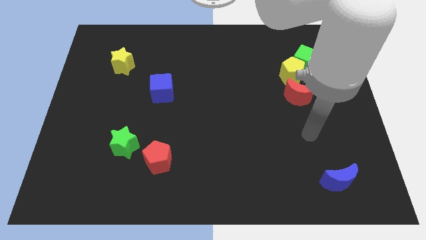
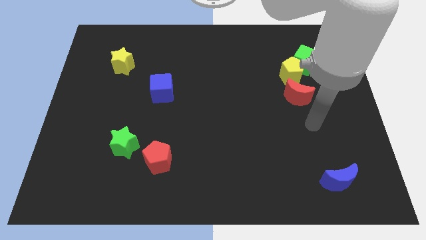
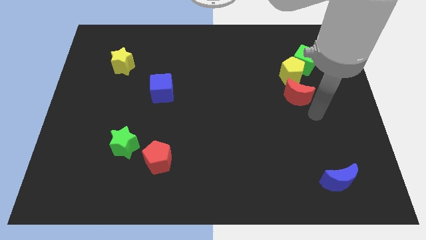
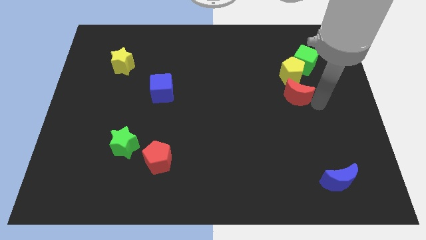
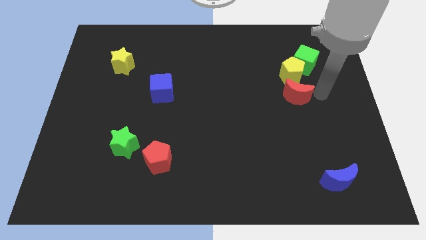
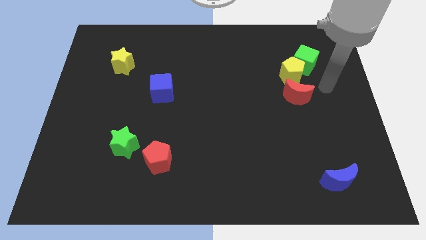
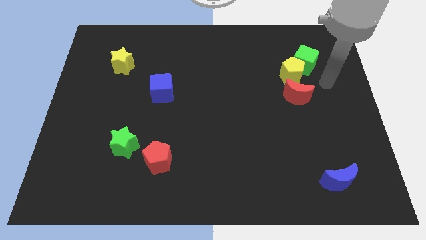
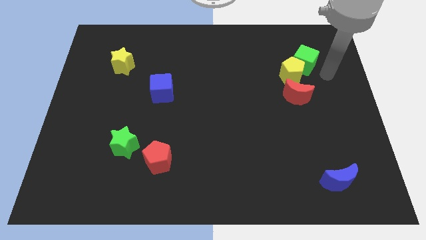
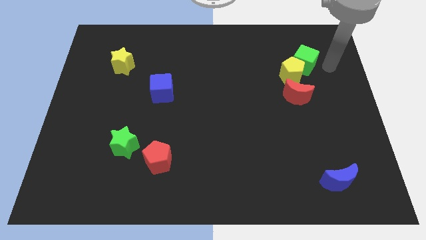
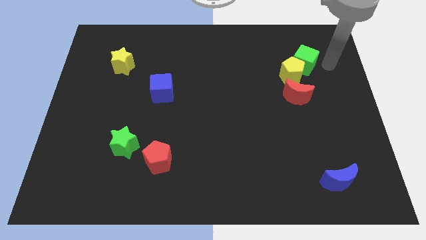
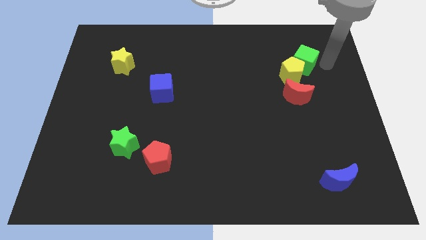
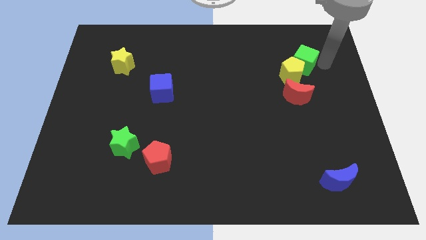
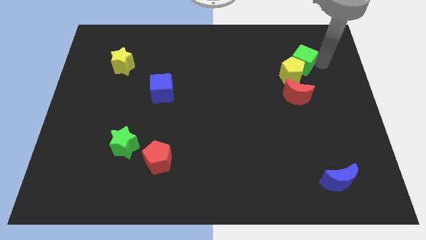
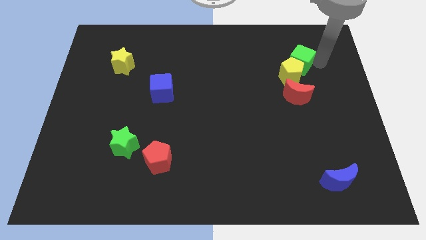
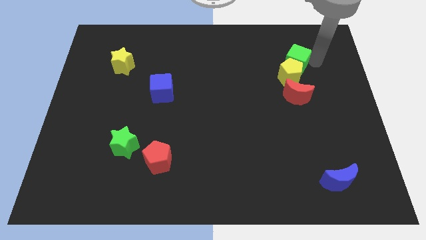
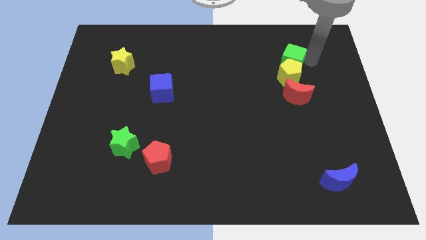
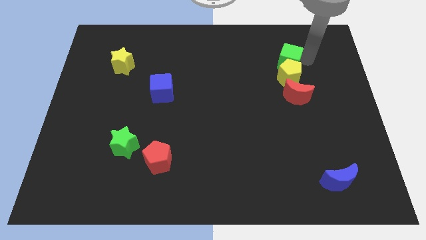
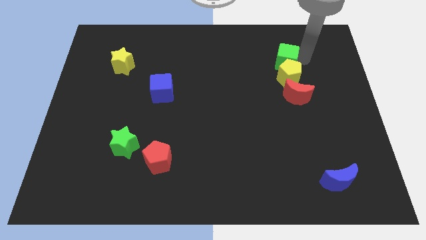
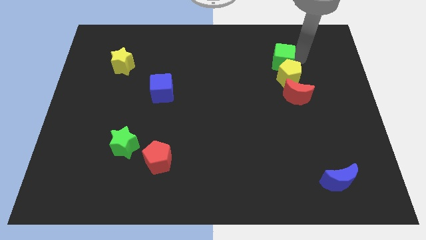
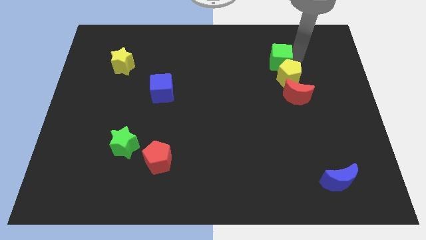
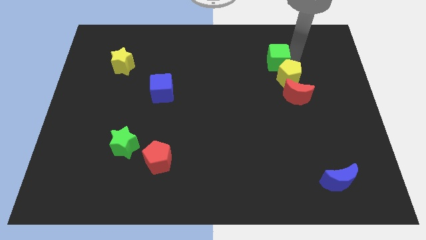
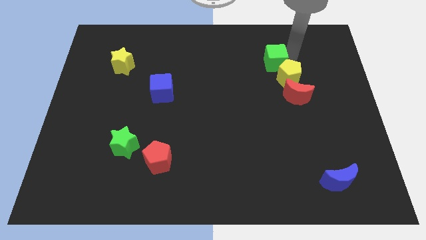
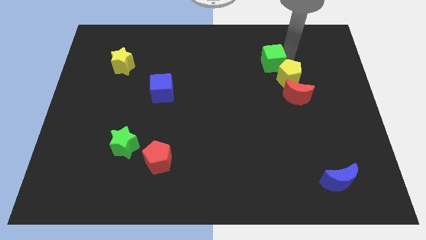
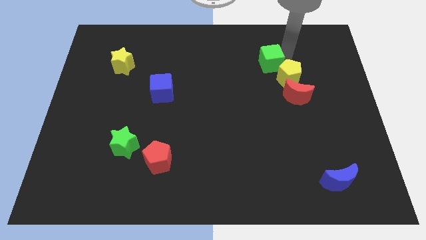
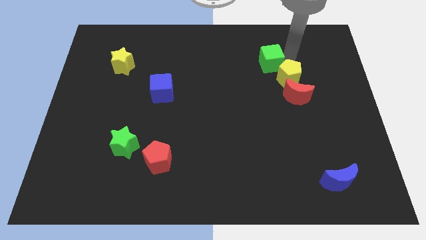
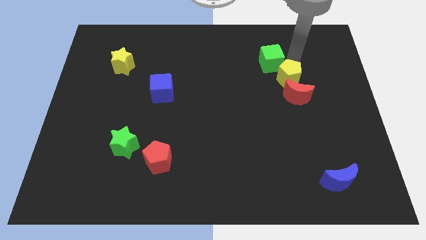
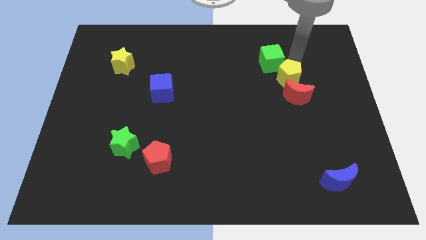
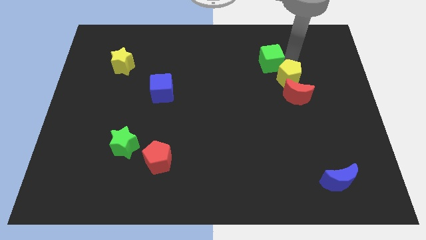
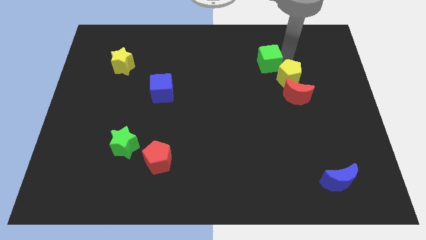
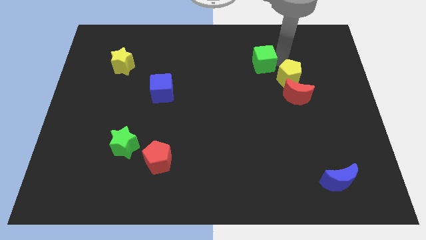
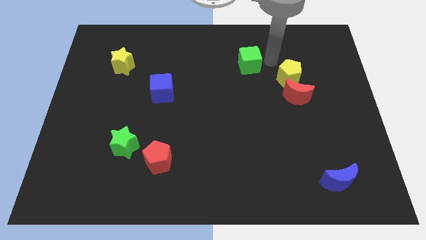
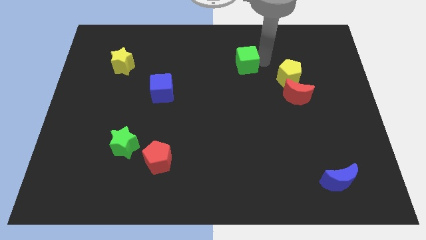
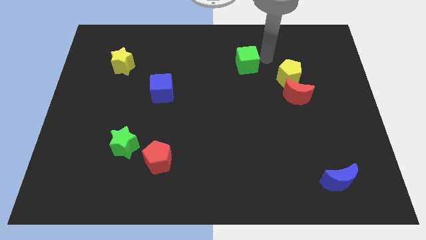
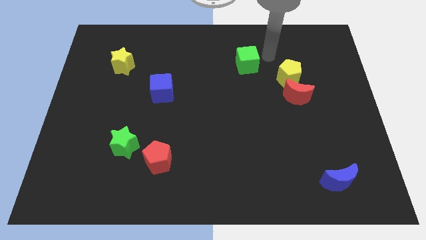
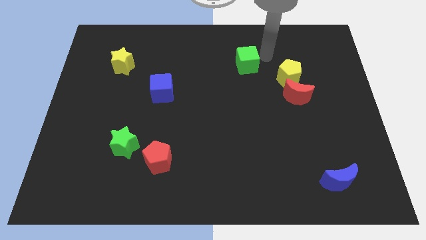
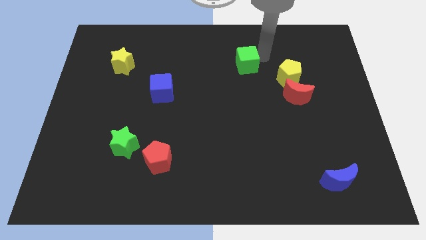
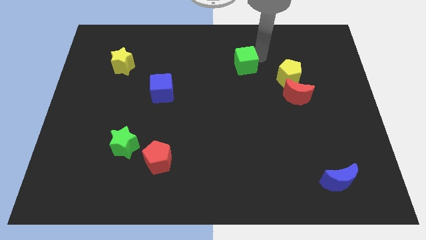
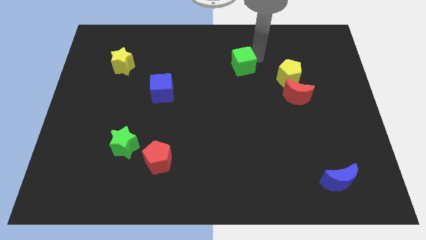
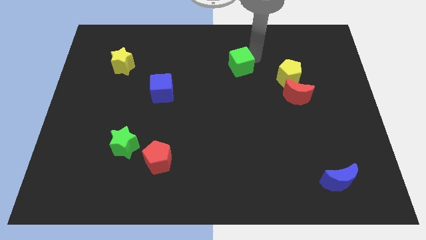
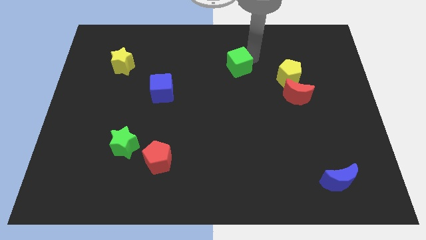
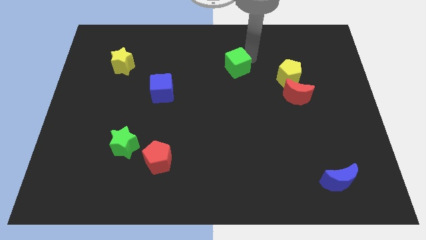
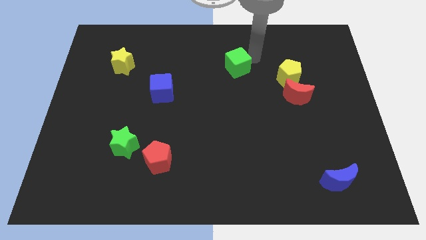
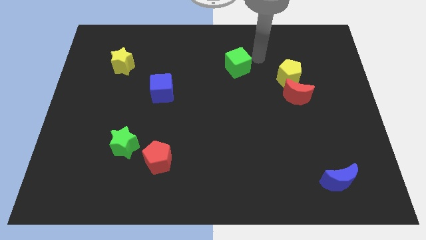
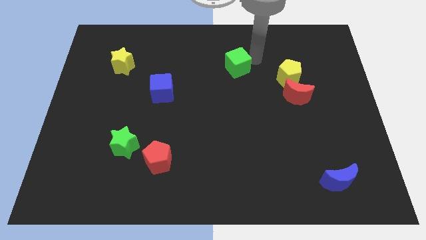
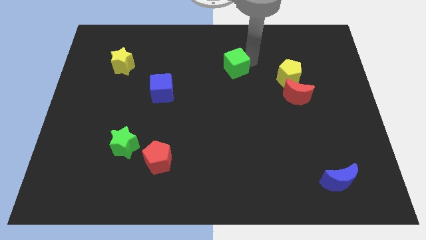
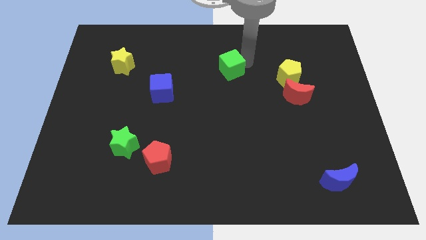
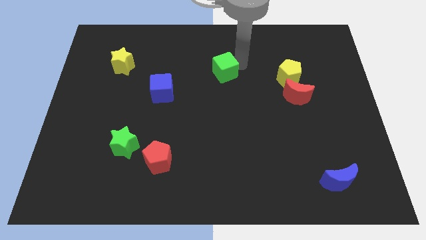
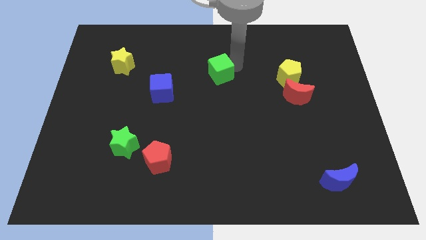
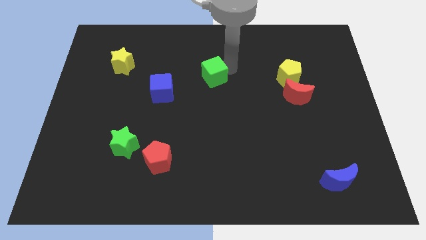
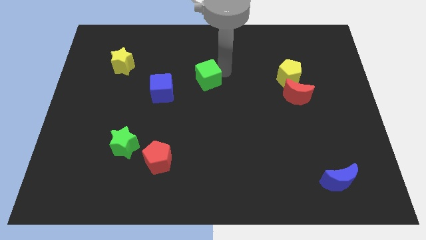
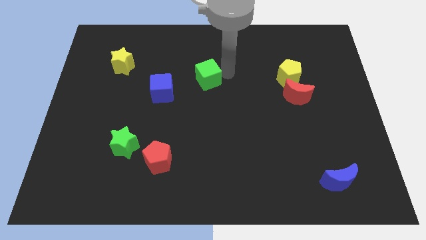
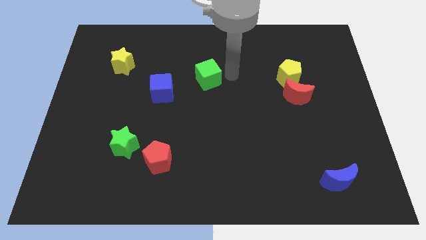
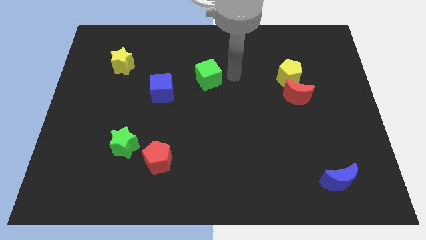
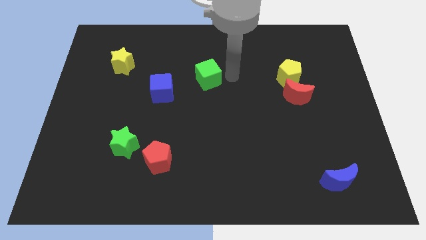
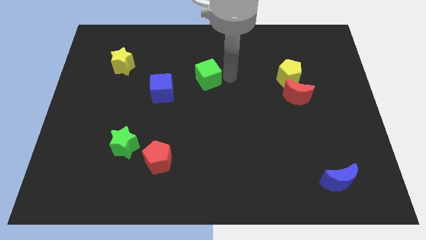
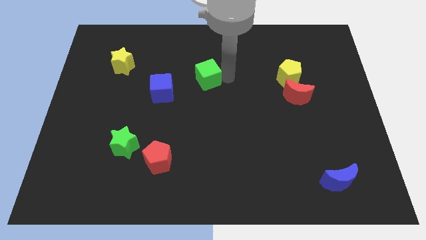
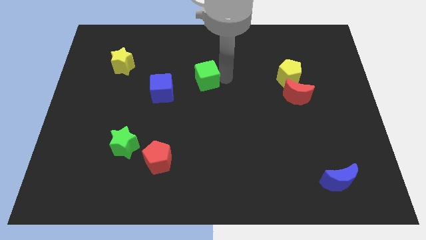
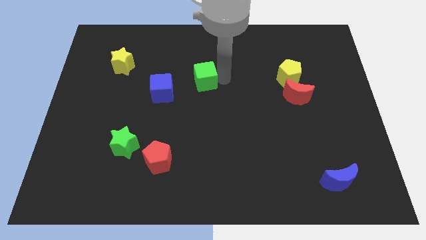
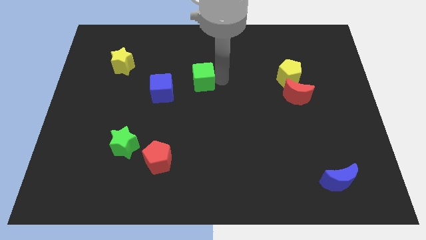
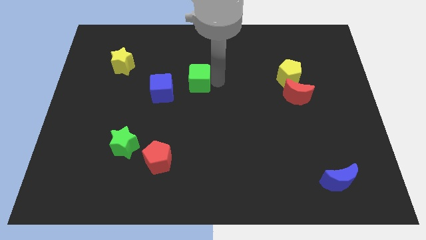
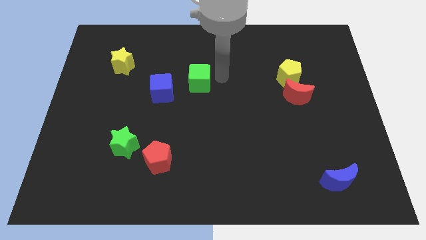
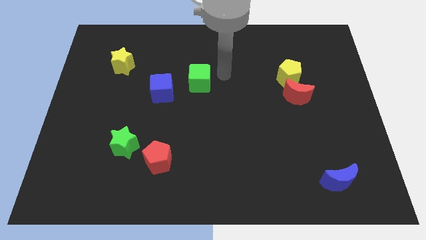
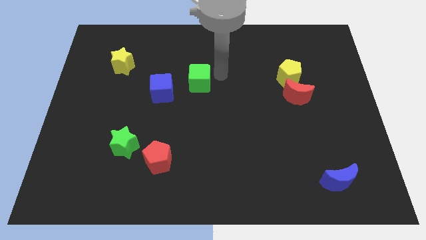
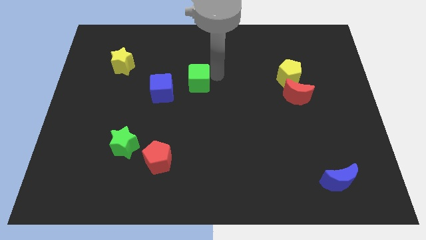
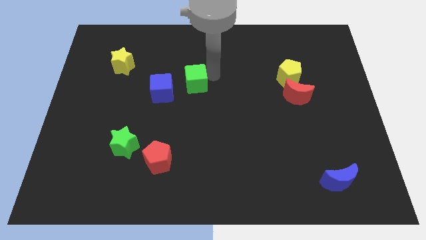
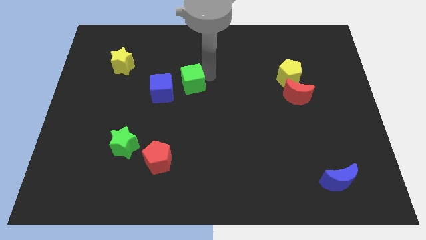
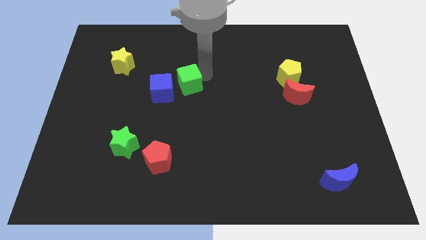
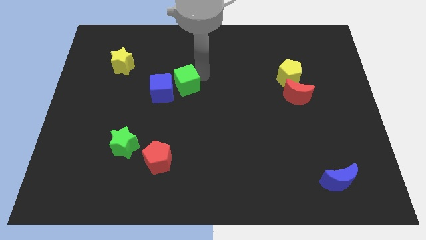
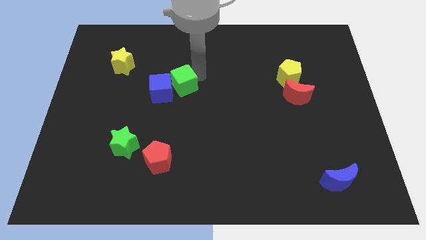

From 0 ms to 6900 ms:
slide the green cube next to the blue cube
